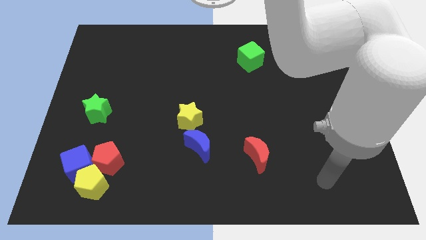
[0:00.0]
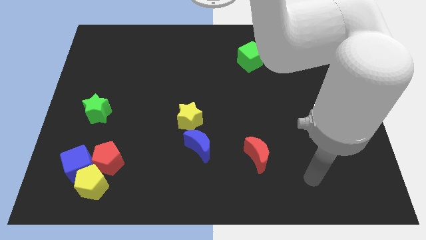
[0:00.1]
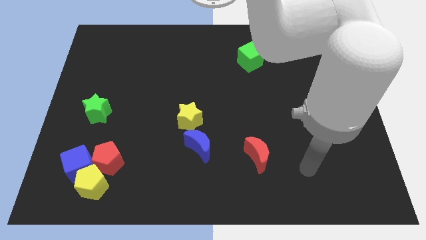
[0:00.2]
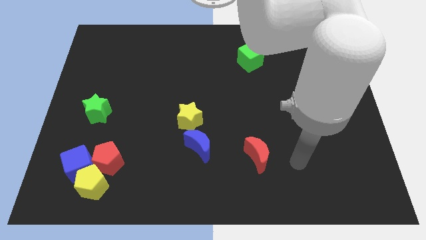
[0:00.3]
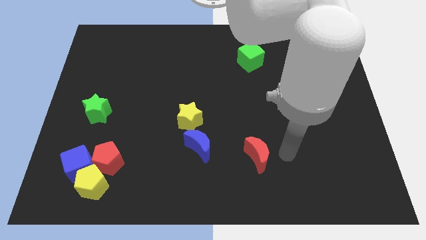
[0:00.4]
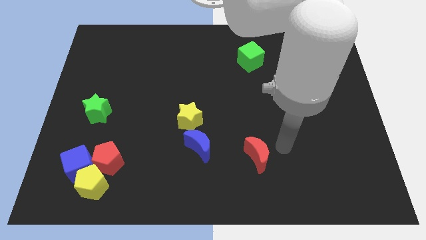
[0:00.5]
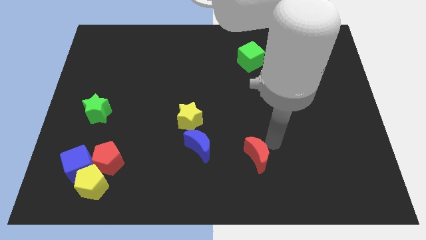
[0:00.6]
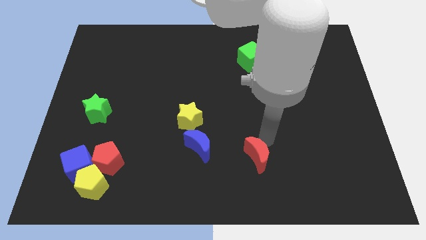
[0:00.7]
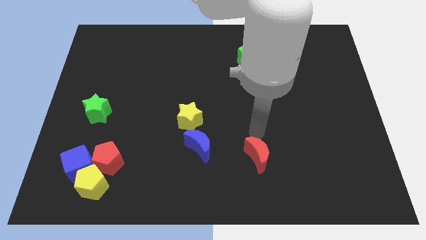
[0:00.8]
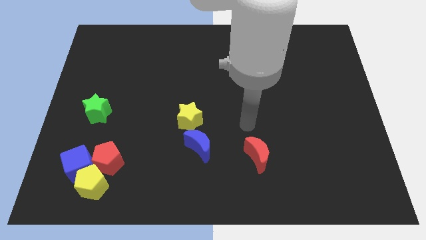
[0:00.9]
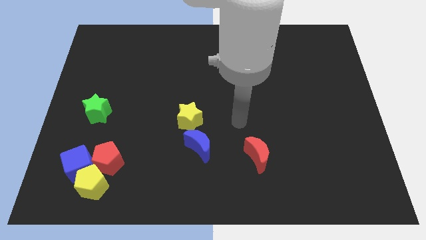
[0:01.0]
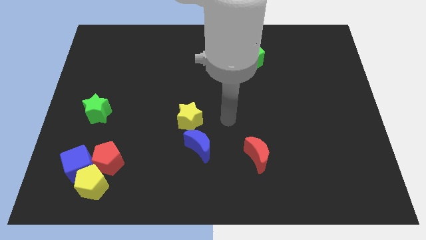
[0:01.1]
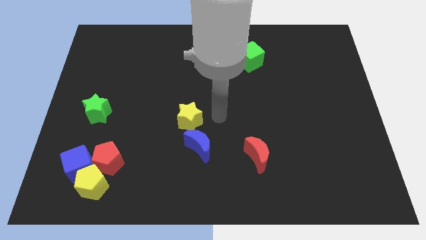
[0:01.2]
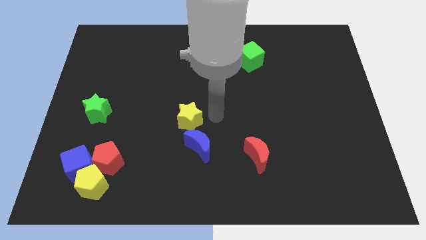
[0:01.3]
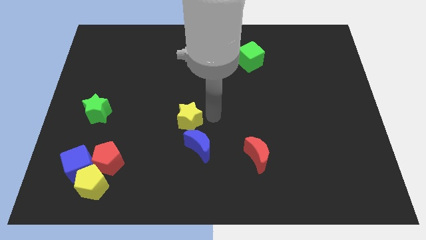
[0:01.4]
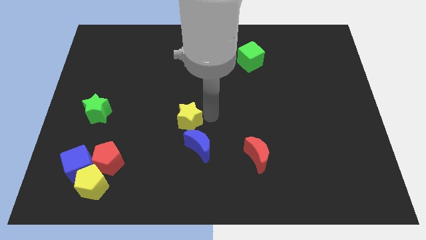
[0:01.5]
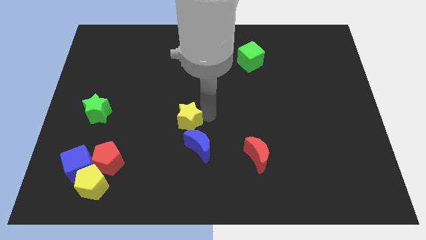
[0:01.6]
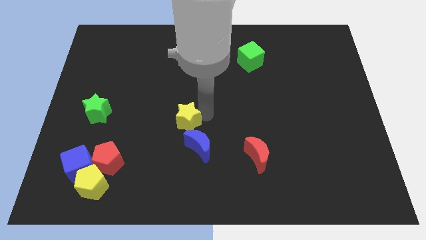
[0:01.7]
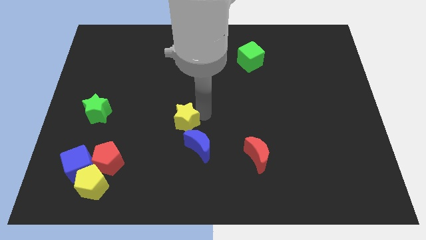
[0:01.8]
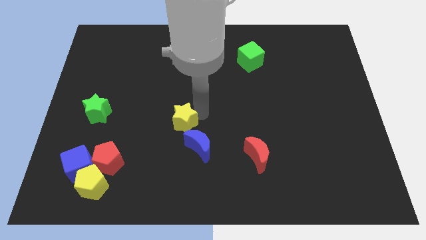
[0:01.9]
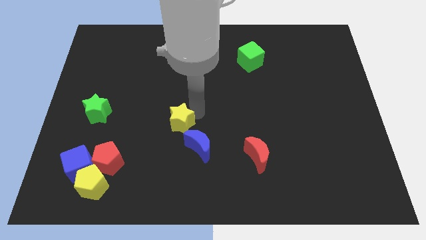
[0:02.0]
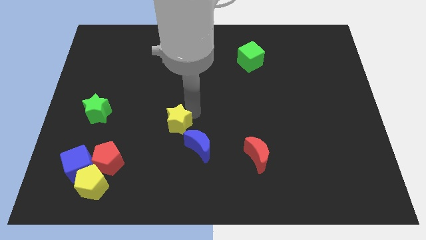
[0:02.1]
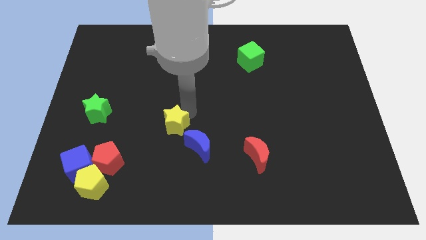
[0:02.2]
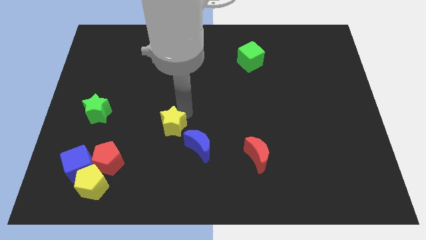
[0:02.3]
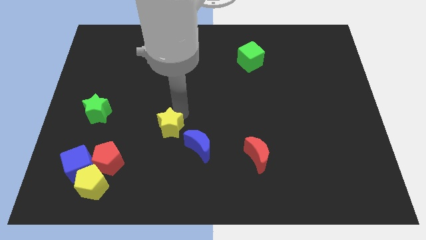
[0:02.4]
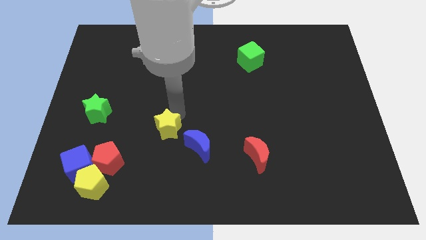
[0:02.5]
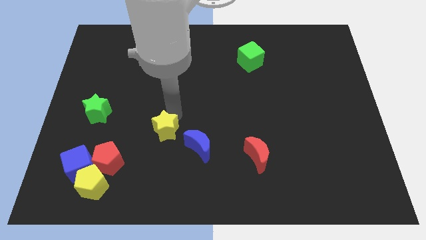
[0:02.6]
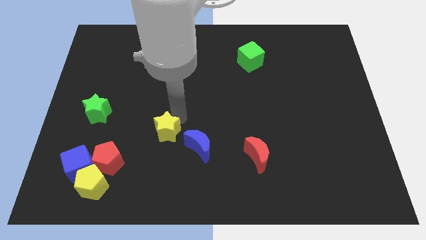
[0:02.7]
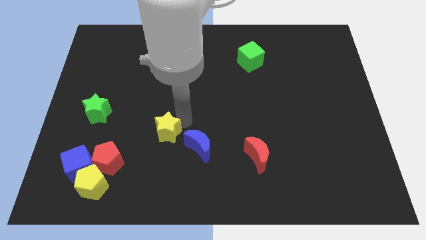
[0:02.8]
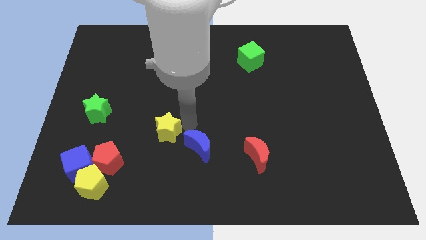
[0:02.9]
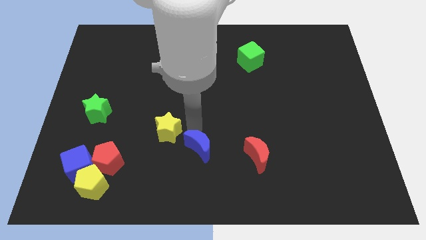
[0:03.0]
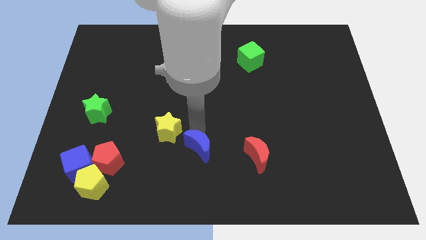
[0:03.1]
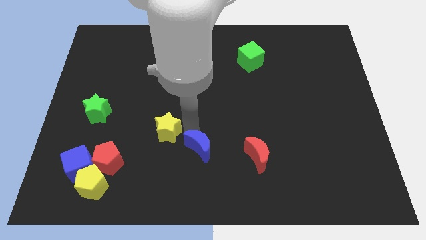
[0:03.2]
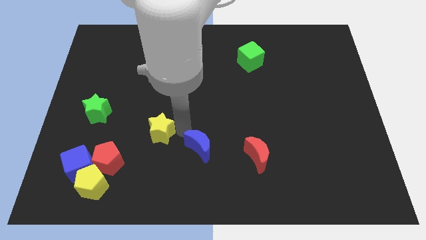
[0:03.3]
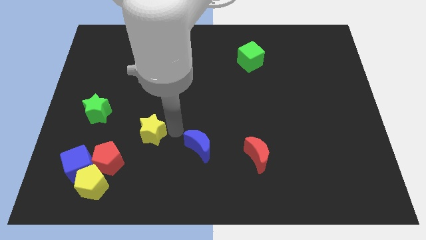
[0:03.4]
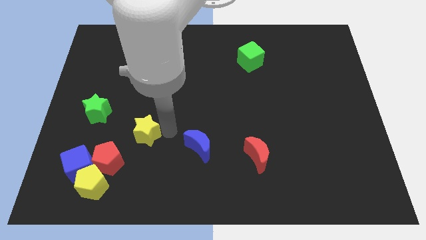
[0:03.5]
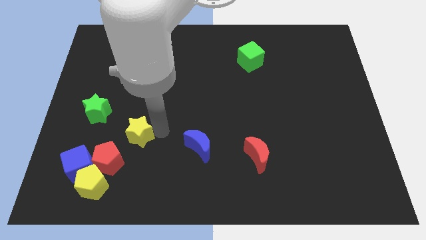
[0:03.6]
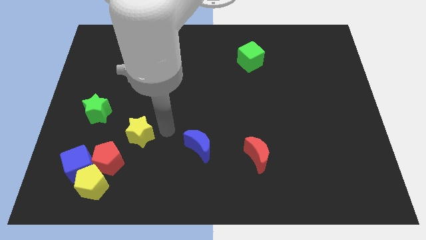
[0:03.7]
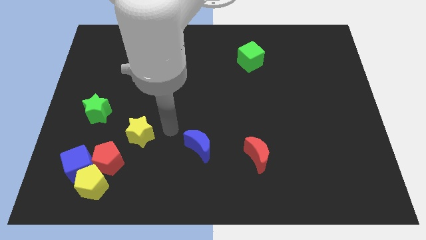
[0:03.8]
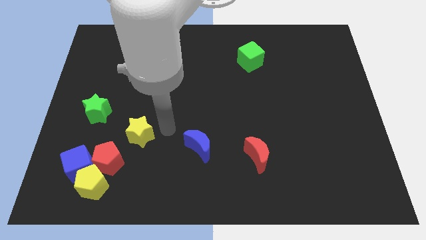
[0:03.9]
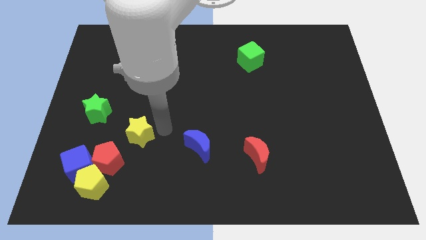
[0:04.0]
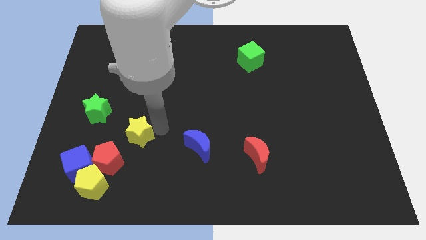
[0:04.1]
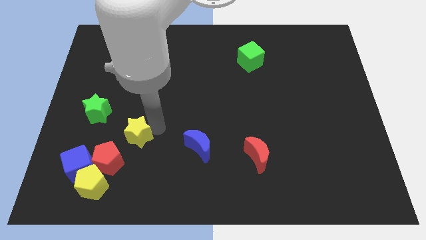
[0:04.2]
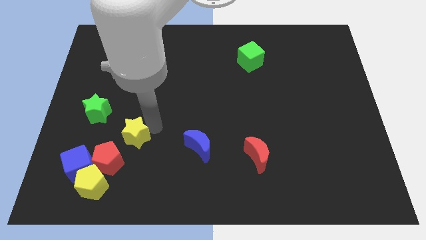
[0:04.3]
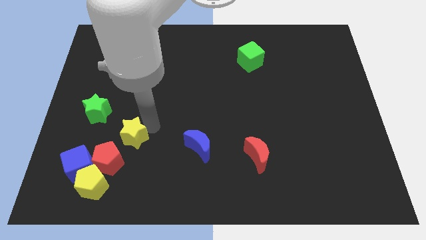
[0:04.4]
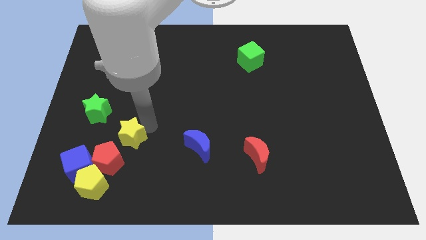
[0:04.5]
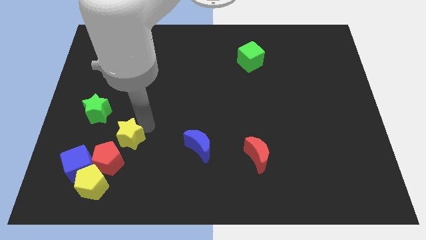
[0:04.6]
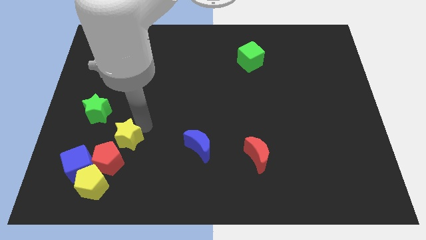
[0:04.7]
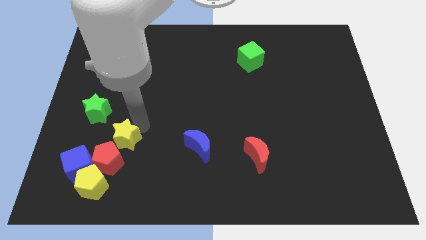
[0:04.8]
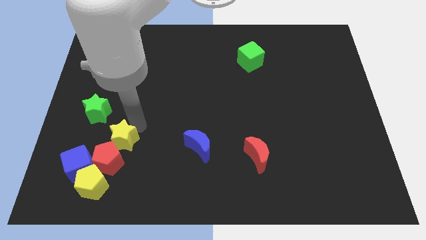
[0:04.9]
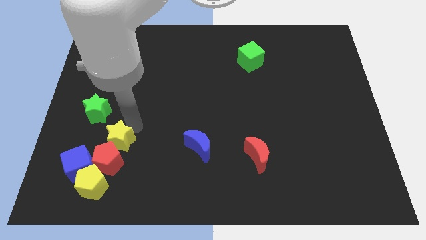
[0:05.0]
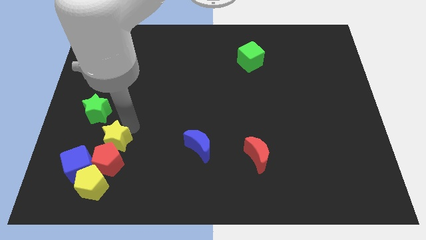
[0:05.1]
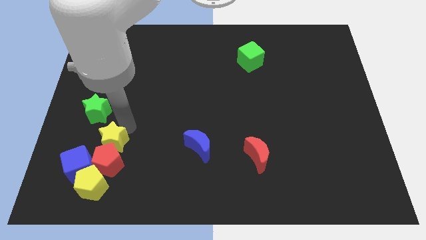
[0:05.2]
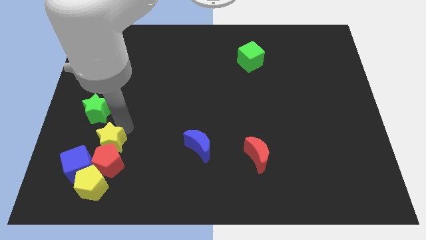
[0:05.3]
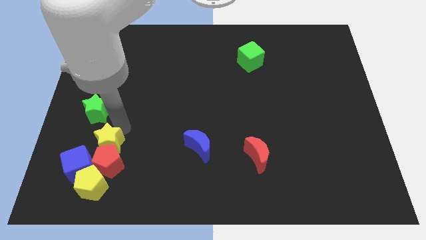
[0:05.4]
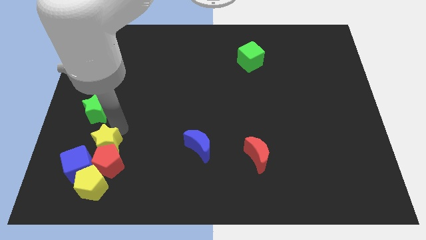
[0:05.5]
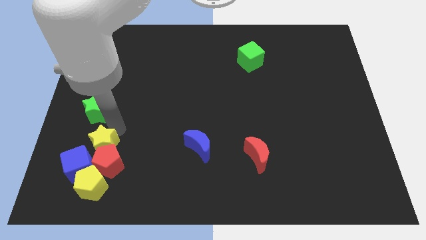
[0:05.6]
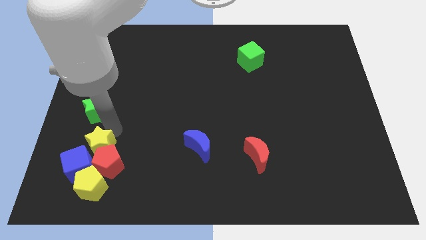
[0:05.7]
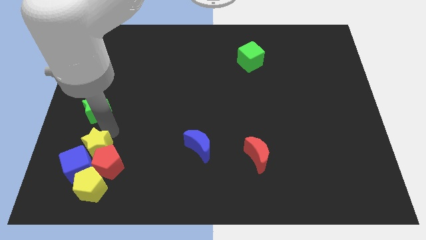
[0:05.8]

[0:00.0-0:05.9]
slide the yellow star next to the blue cube

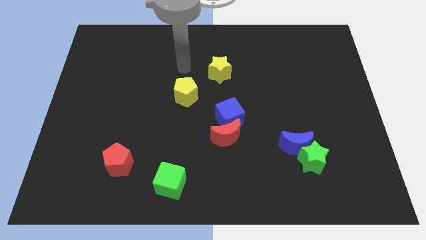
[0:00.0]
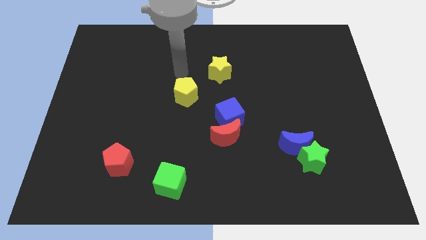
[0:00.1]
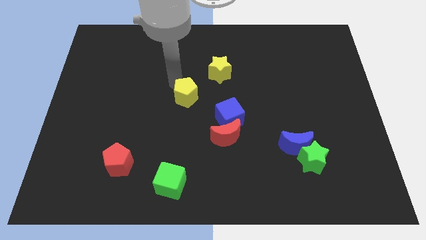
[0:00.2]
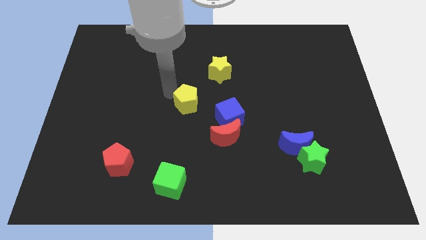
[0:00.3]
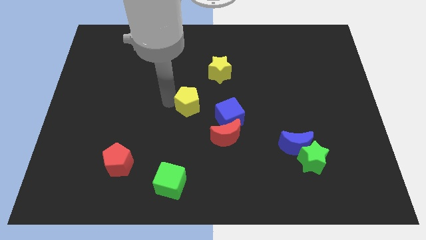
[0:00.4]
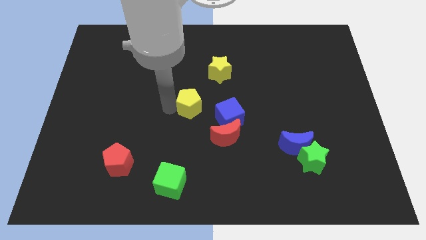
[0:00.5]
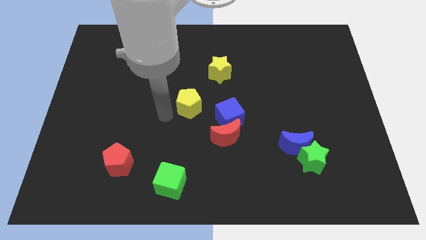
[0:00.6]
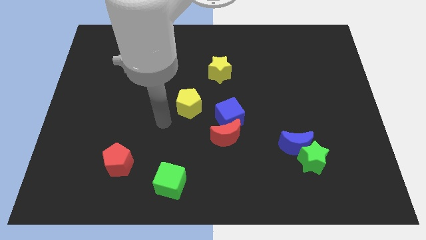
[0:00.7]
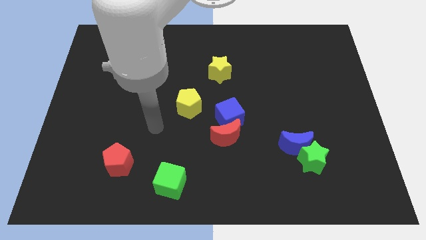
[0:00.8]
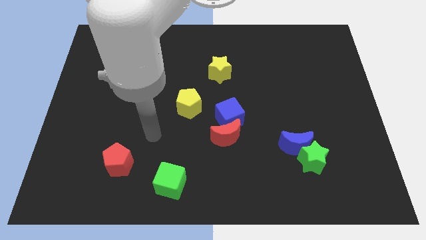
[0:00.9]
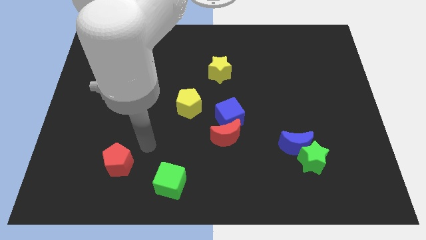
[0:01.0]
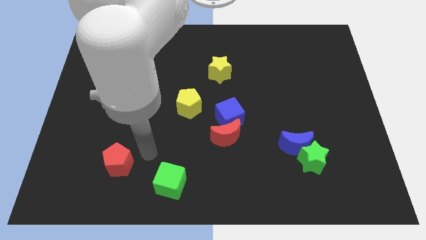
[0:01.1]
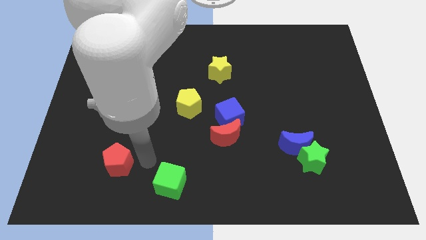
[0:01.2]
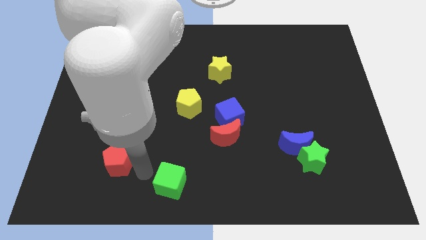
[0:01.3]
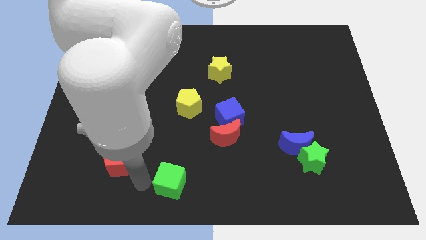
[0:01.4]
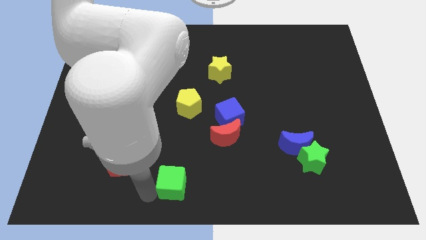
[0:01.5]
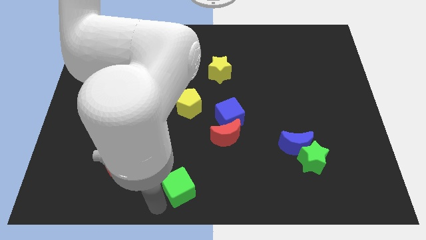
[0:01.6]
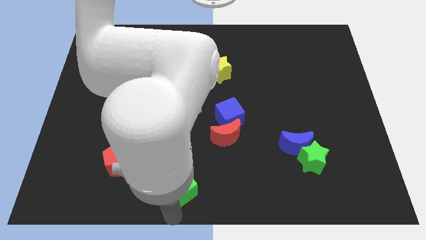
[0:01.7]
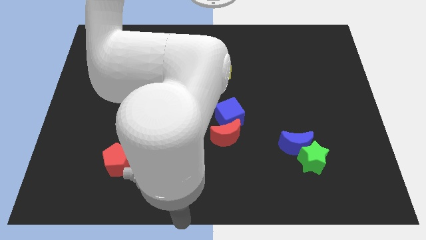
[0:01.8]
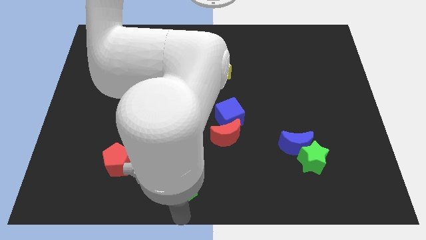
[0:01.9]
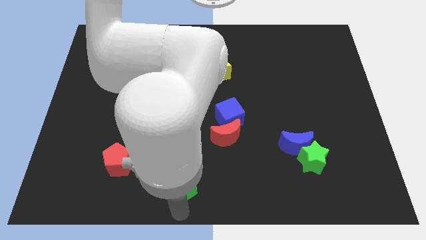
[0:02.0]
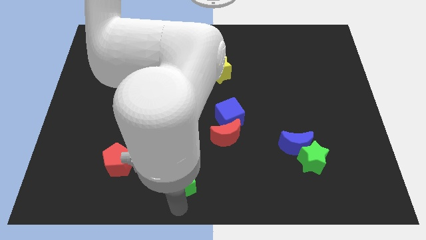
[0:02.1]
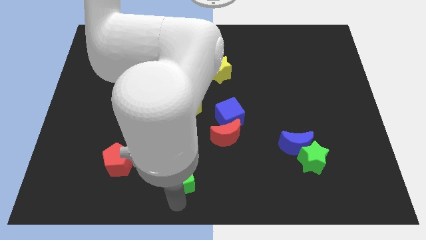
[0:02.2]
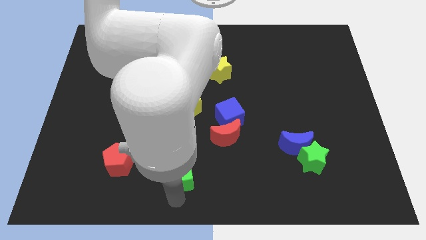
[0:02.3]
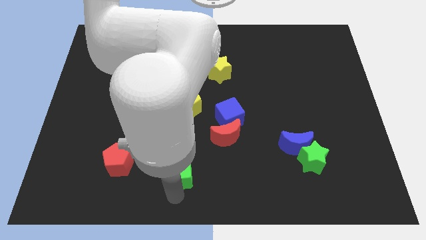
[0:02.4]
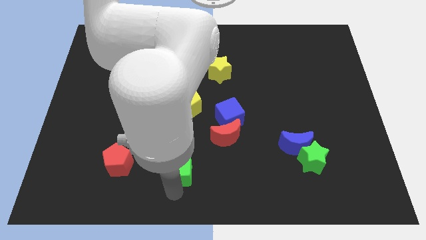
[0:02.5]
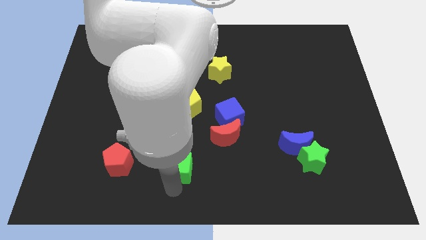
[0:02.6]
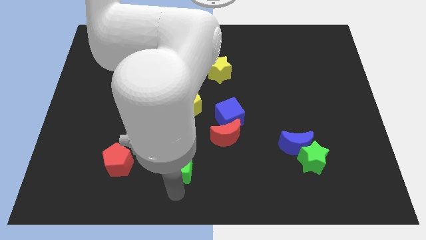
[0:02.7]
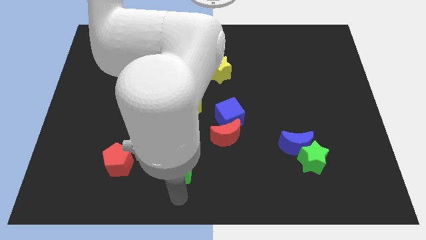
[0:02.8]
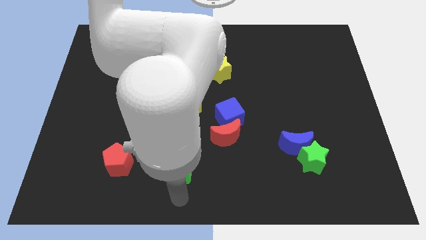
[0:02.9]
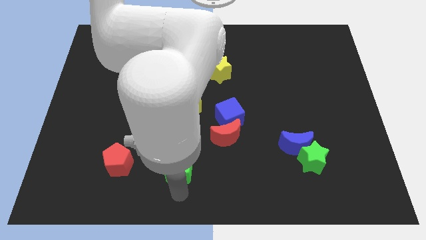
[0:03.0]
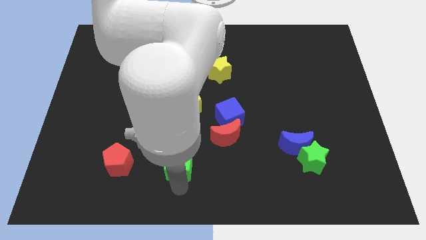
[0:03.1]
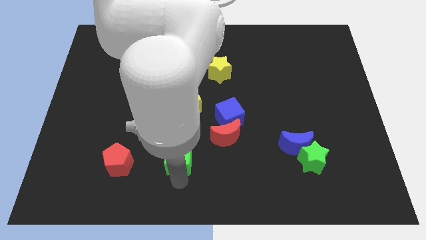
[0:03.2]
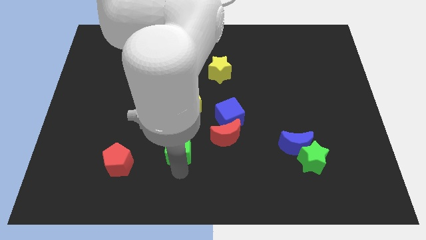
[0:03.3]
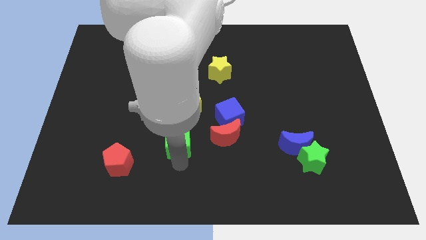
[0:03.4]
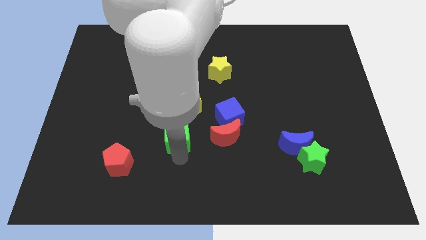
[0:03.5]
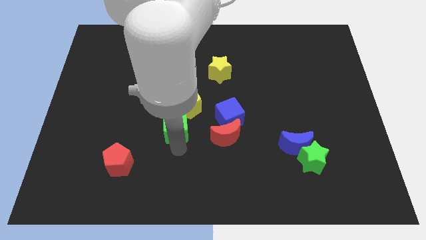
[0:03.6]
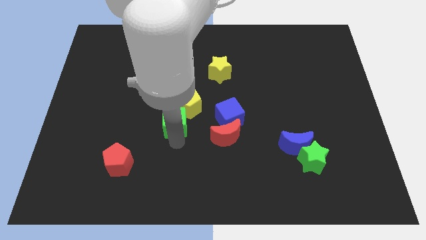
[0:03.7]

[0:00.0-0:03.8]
put the green cube close to the yellow pentagon
